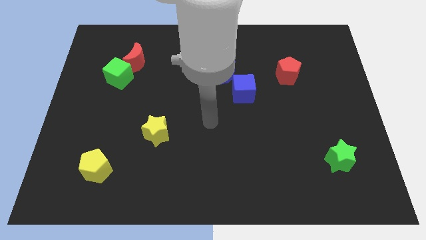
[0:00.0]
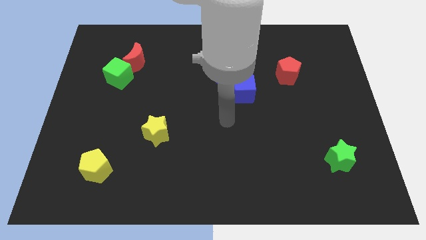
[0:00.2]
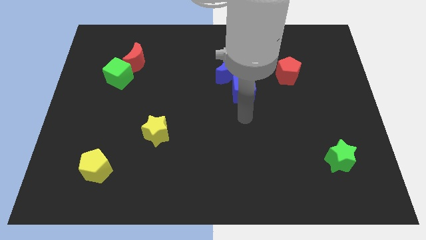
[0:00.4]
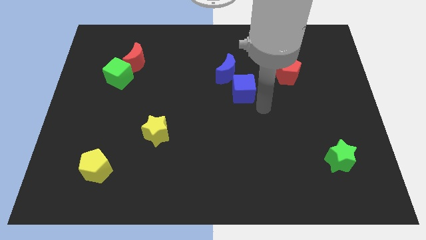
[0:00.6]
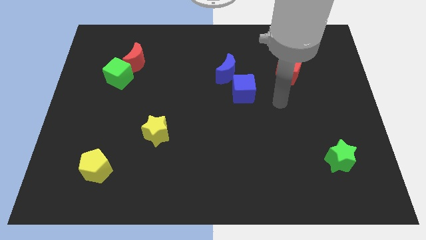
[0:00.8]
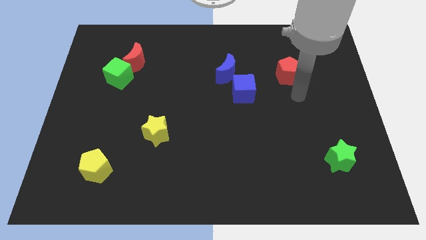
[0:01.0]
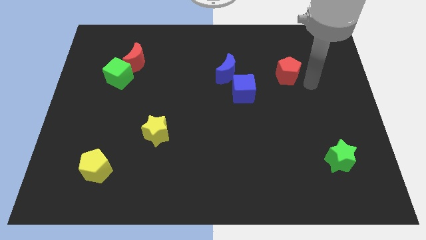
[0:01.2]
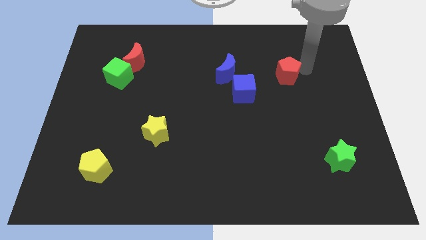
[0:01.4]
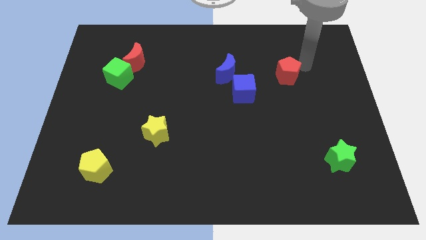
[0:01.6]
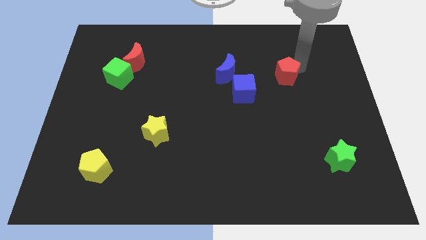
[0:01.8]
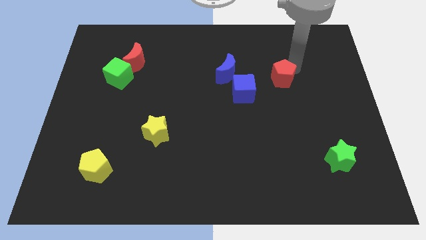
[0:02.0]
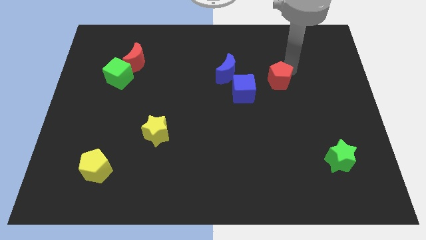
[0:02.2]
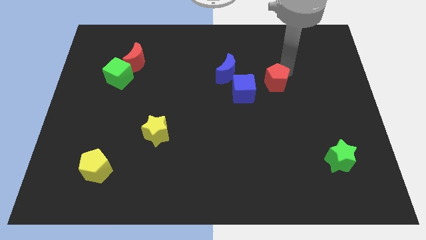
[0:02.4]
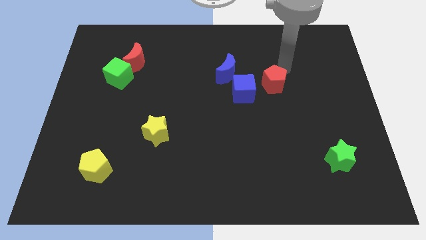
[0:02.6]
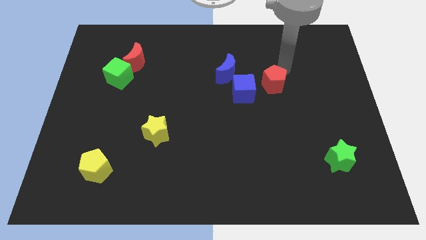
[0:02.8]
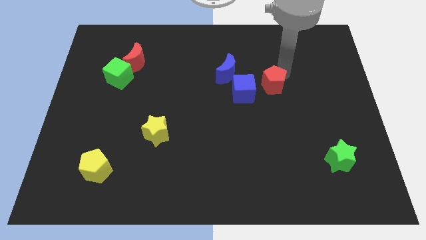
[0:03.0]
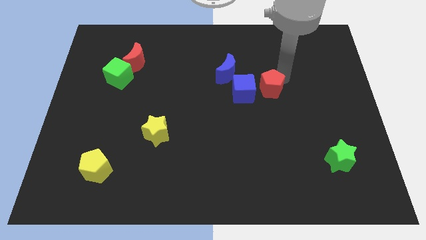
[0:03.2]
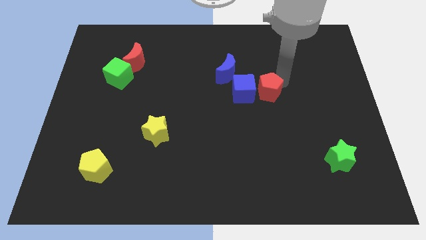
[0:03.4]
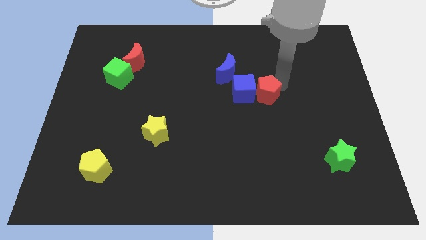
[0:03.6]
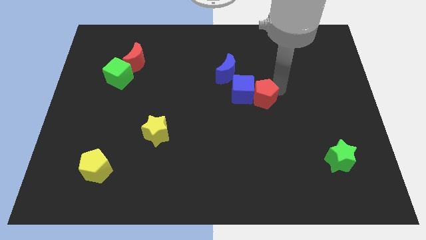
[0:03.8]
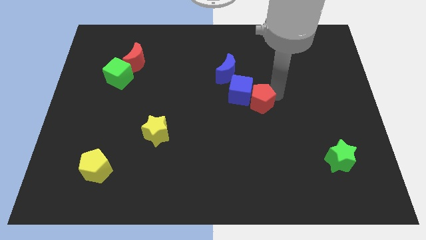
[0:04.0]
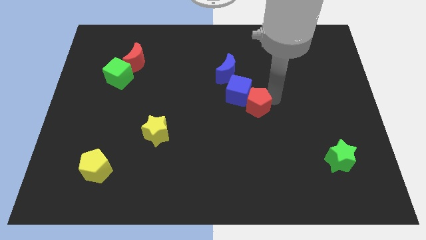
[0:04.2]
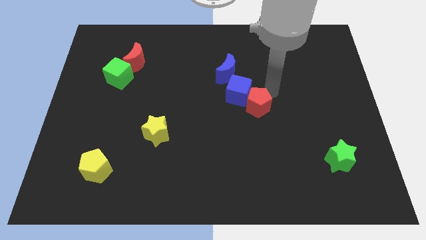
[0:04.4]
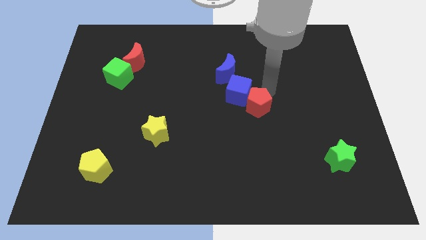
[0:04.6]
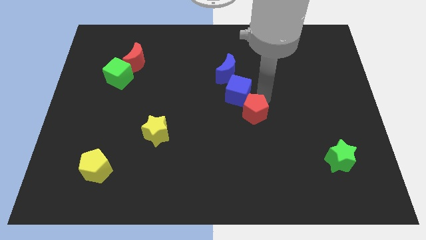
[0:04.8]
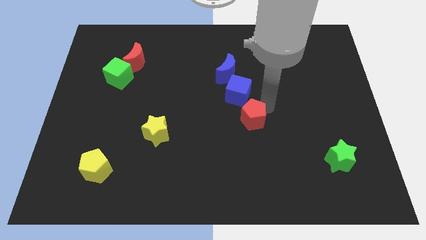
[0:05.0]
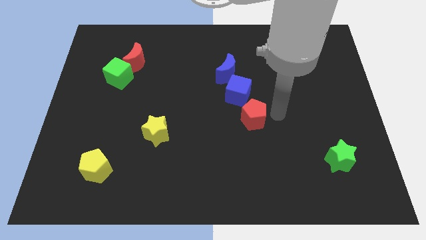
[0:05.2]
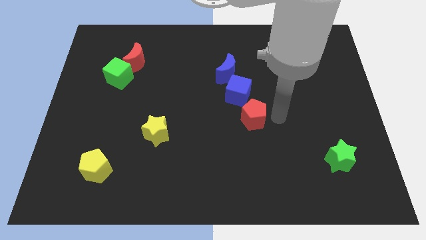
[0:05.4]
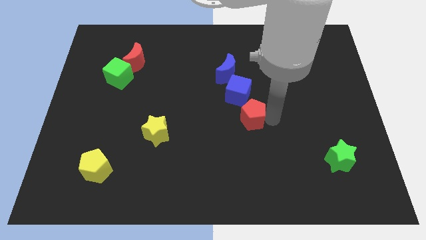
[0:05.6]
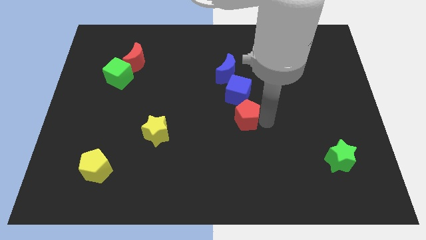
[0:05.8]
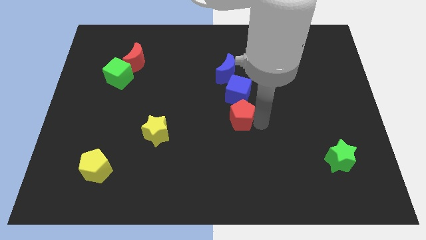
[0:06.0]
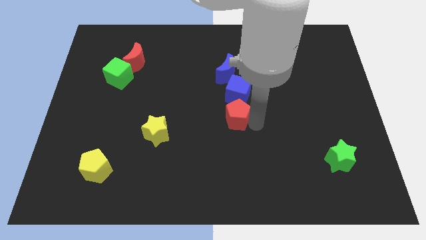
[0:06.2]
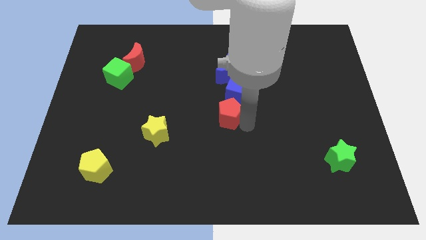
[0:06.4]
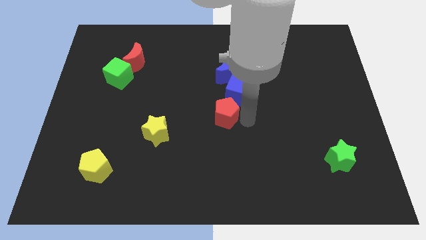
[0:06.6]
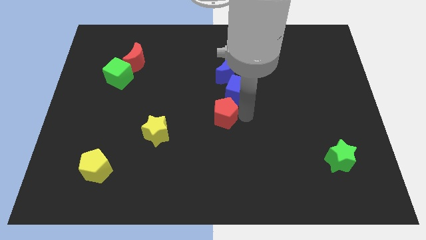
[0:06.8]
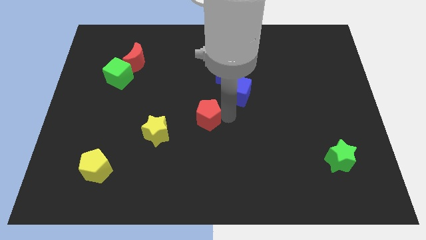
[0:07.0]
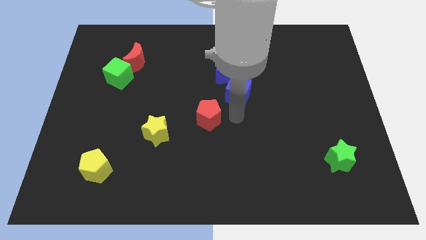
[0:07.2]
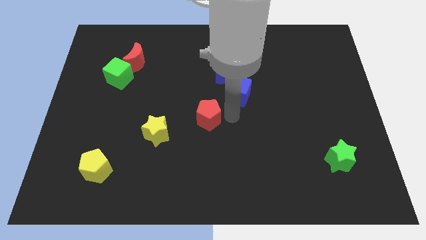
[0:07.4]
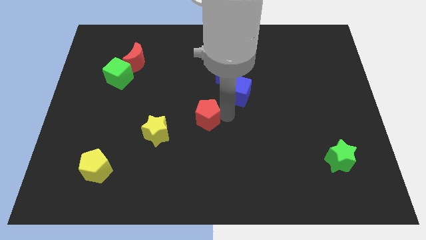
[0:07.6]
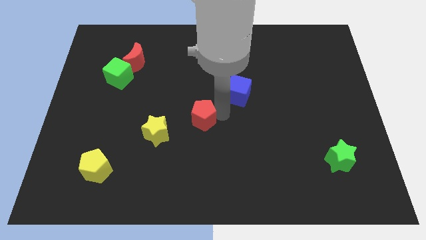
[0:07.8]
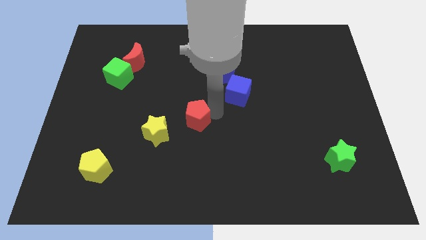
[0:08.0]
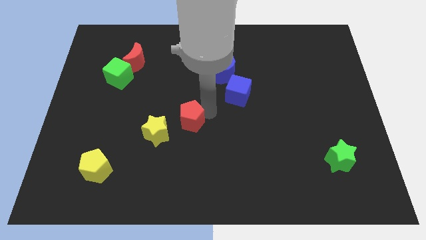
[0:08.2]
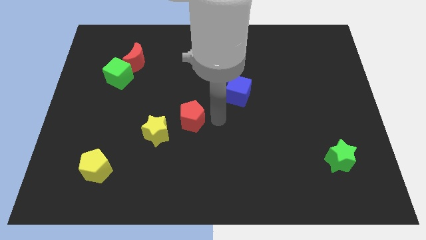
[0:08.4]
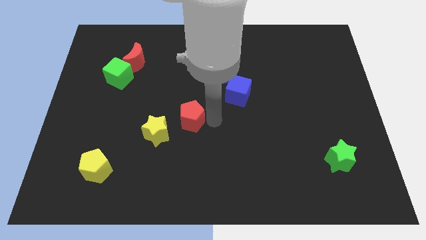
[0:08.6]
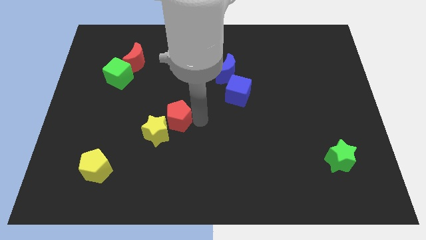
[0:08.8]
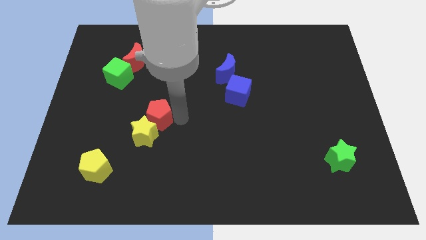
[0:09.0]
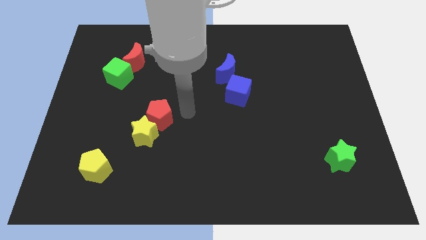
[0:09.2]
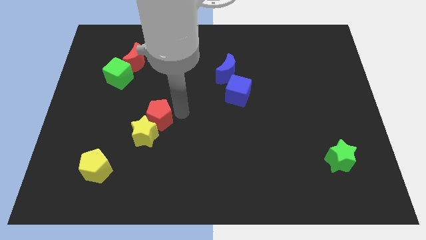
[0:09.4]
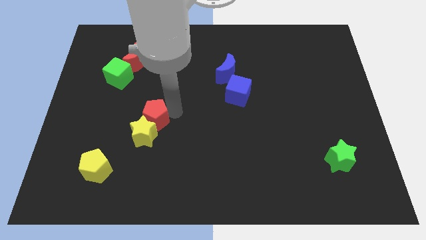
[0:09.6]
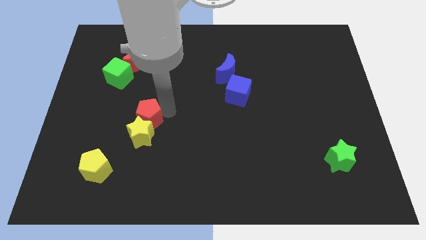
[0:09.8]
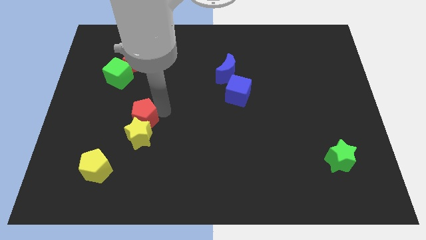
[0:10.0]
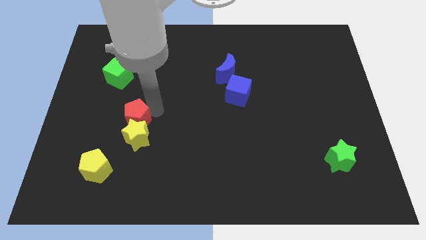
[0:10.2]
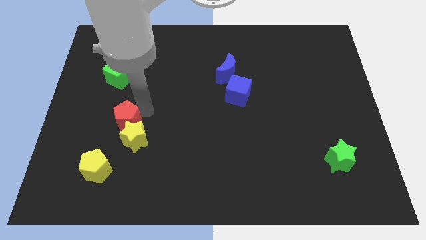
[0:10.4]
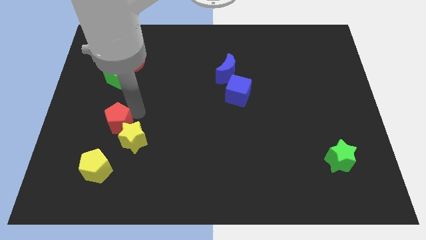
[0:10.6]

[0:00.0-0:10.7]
push the red pentagon just left of the yellow star

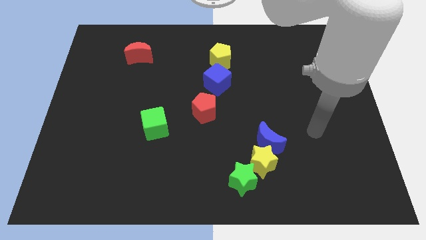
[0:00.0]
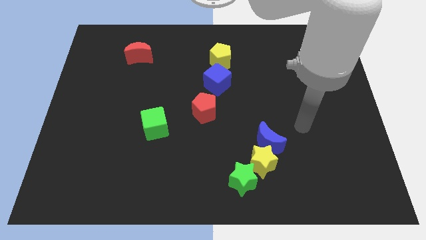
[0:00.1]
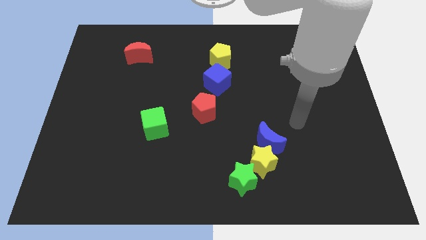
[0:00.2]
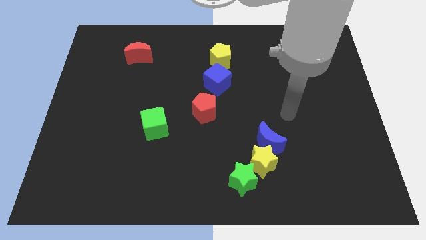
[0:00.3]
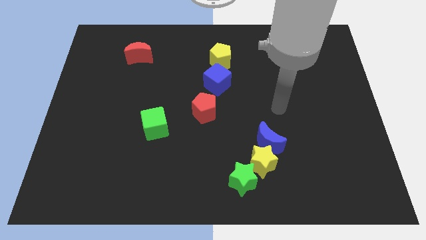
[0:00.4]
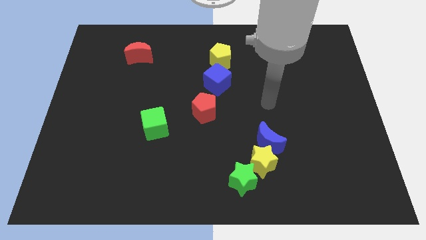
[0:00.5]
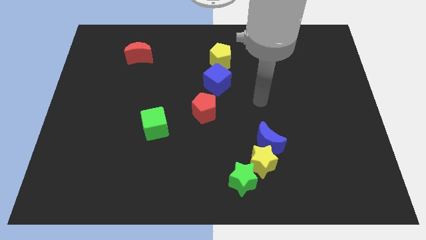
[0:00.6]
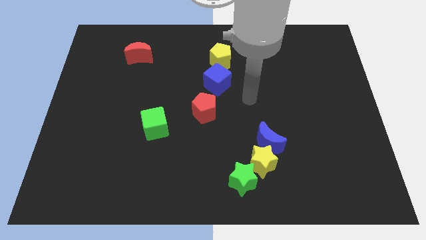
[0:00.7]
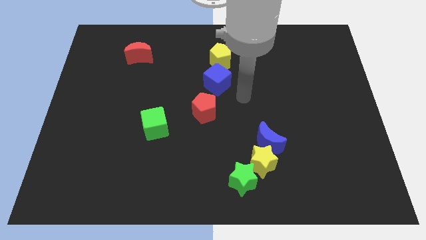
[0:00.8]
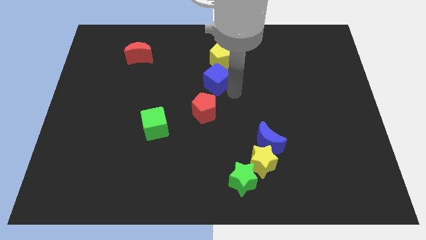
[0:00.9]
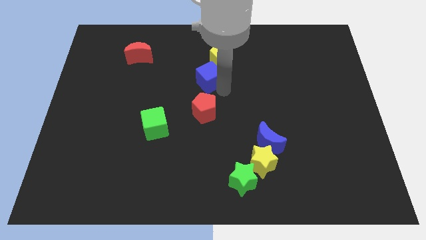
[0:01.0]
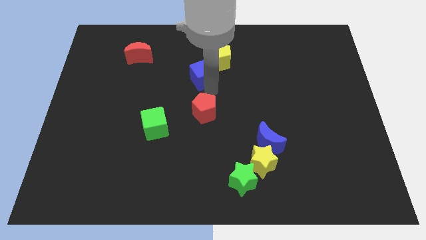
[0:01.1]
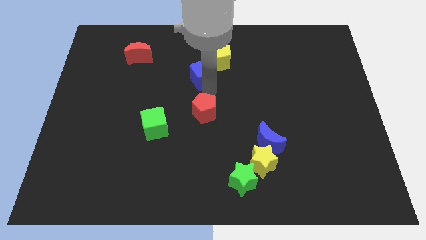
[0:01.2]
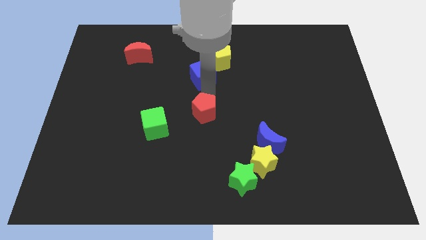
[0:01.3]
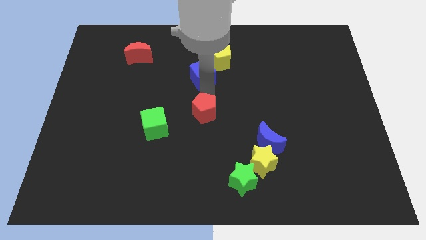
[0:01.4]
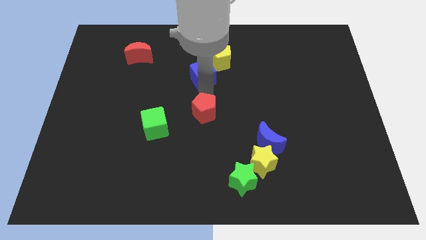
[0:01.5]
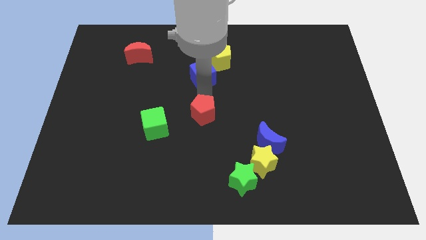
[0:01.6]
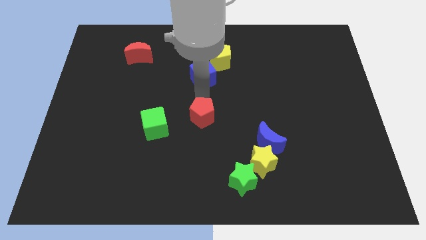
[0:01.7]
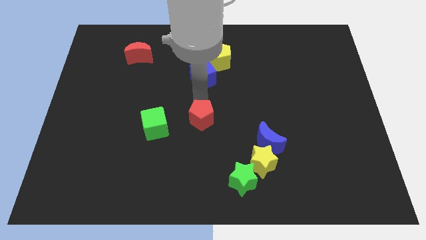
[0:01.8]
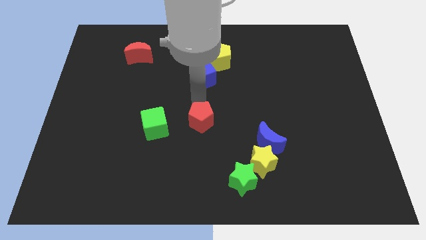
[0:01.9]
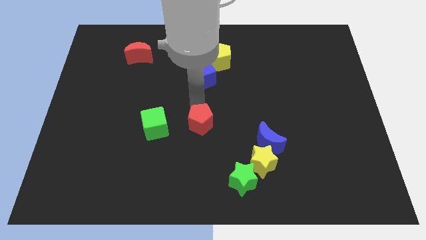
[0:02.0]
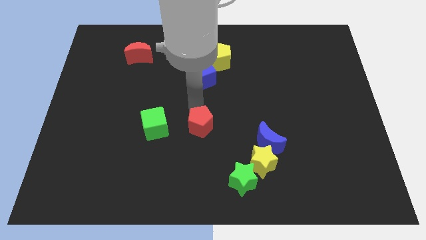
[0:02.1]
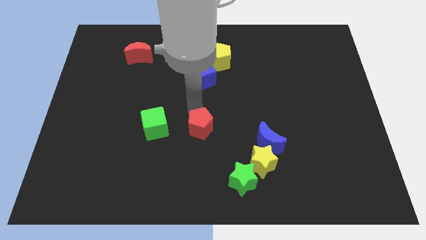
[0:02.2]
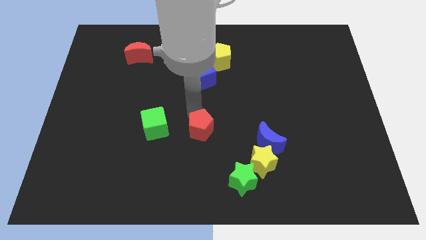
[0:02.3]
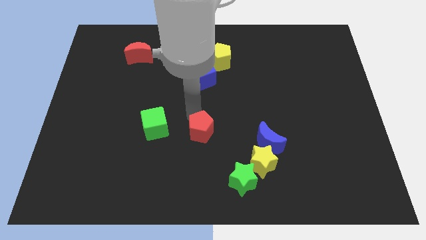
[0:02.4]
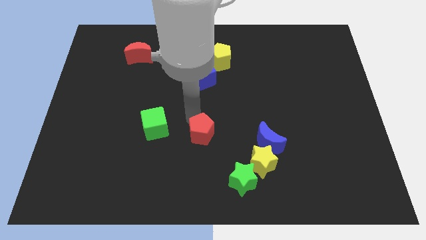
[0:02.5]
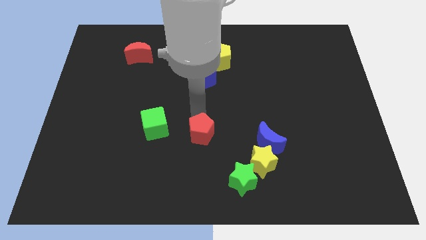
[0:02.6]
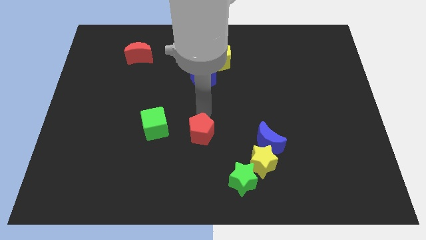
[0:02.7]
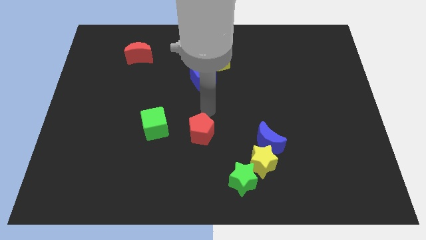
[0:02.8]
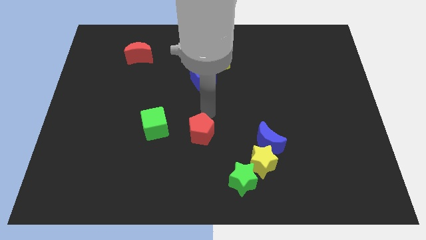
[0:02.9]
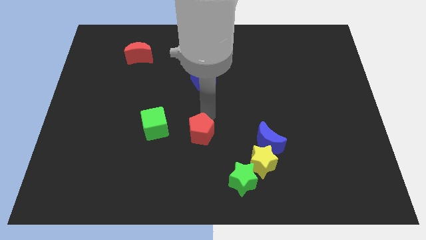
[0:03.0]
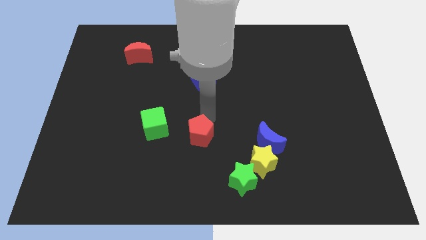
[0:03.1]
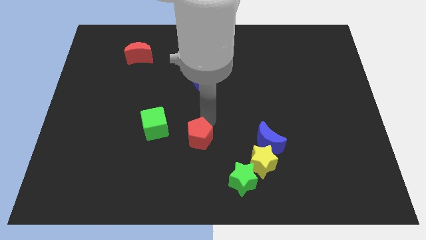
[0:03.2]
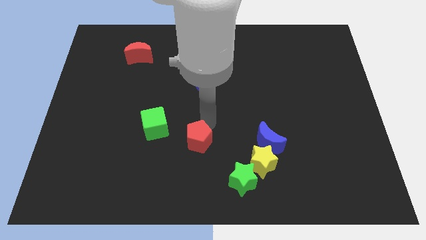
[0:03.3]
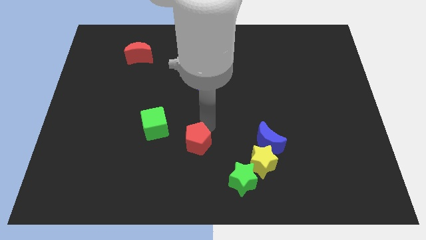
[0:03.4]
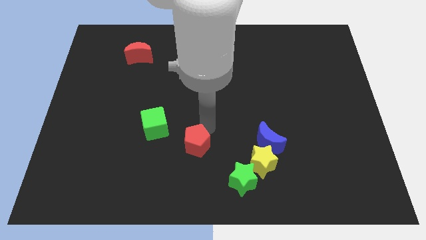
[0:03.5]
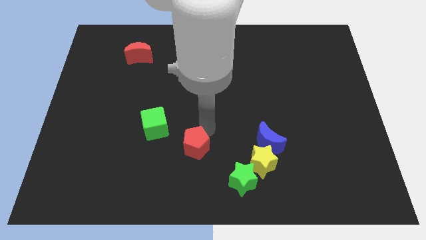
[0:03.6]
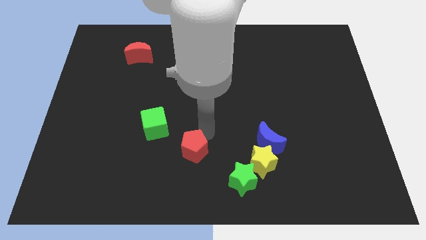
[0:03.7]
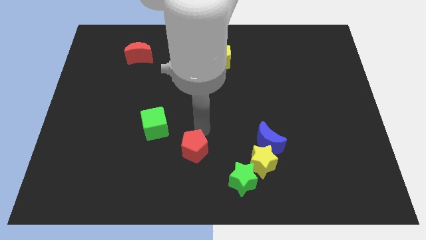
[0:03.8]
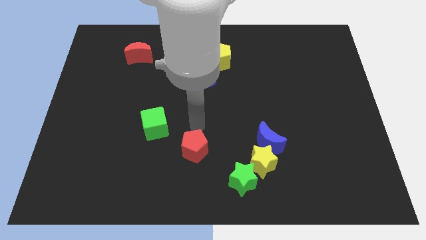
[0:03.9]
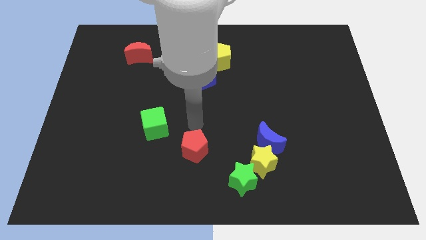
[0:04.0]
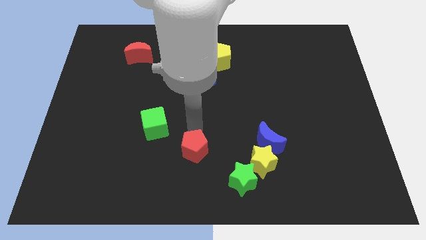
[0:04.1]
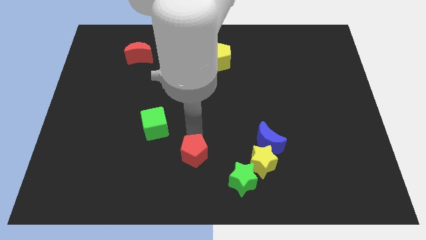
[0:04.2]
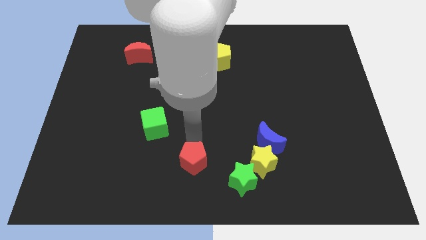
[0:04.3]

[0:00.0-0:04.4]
put the red pentagon to the left of the green star
